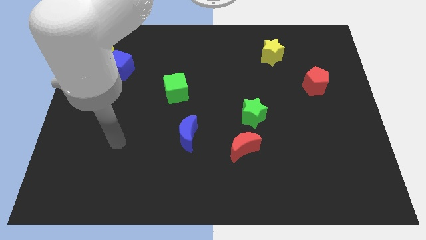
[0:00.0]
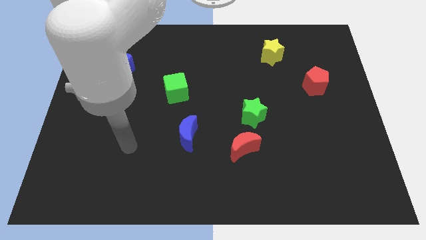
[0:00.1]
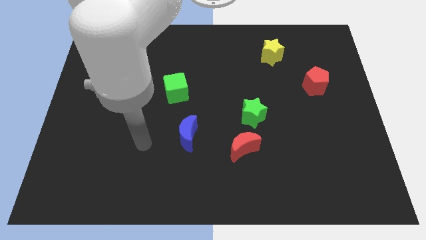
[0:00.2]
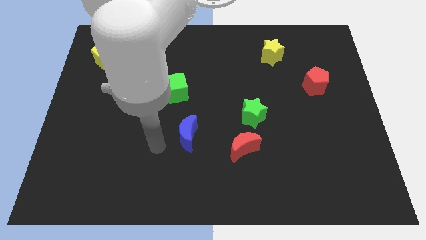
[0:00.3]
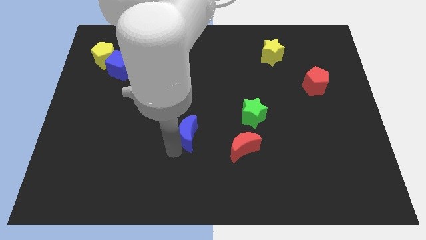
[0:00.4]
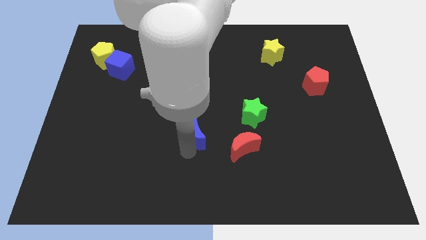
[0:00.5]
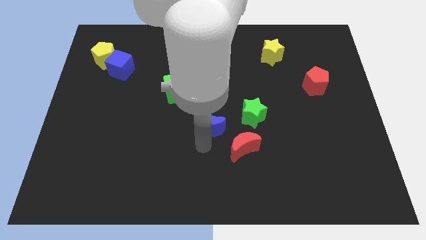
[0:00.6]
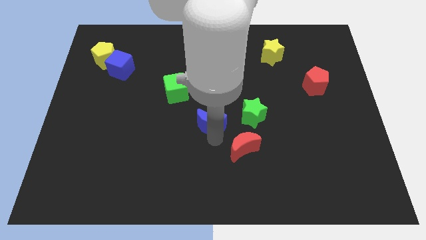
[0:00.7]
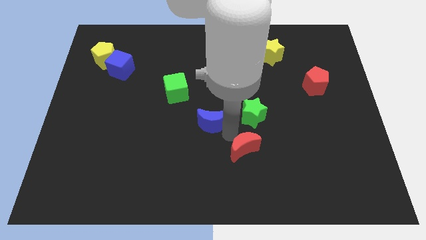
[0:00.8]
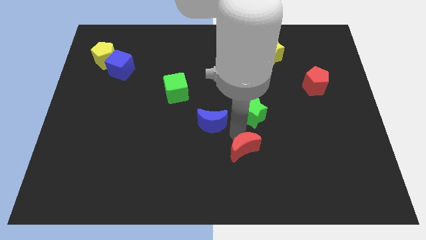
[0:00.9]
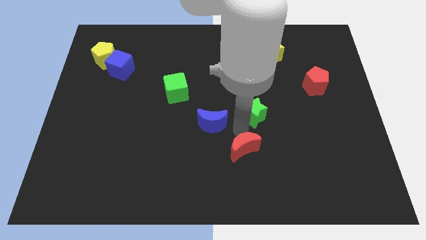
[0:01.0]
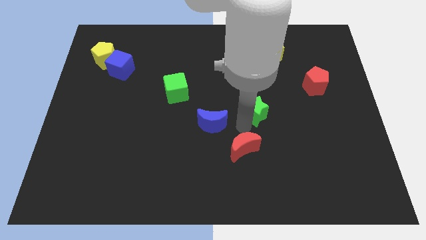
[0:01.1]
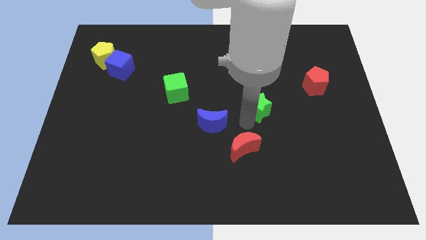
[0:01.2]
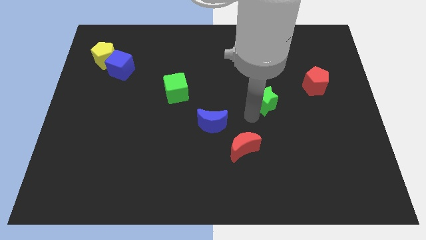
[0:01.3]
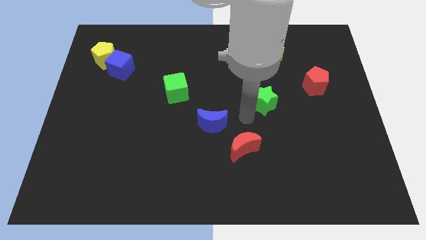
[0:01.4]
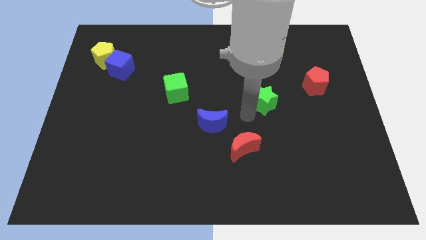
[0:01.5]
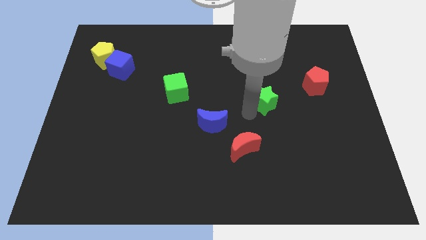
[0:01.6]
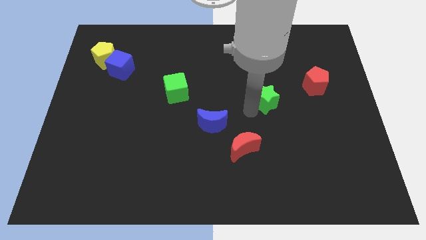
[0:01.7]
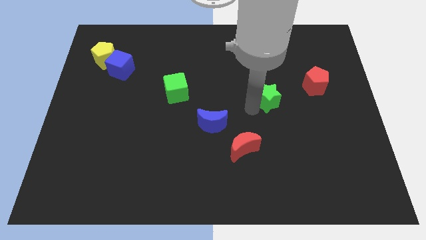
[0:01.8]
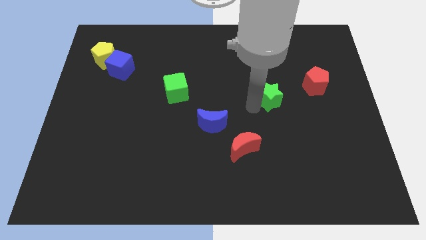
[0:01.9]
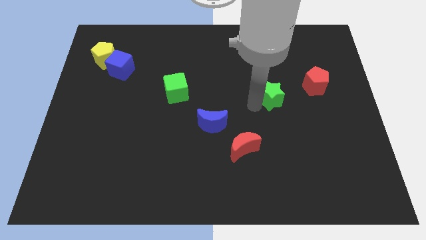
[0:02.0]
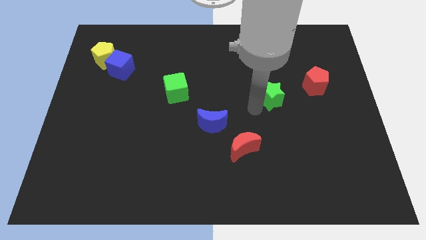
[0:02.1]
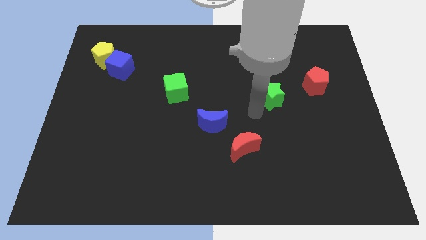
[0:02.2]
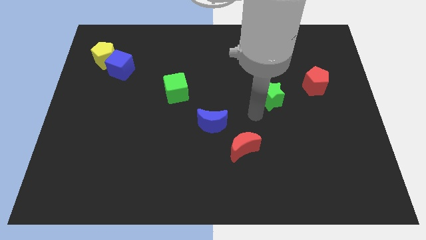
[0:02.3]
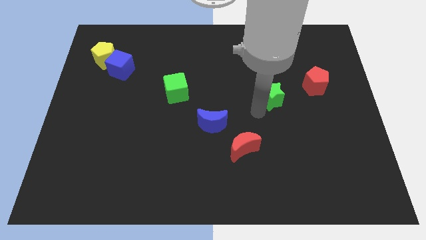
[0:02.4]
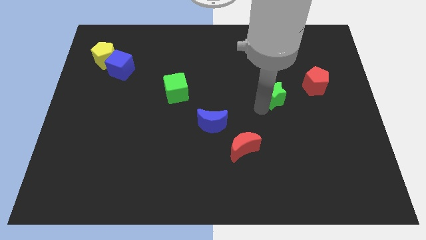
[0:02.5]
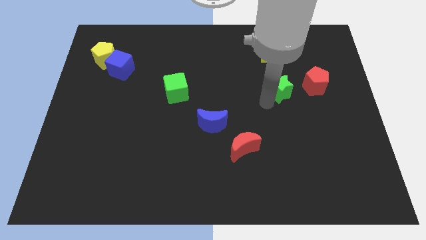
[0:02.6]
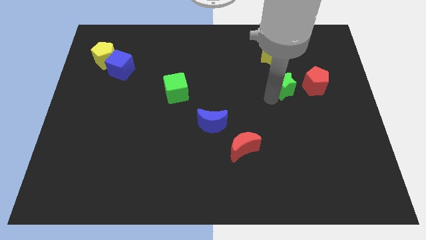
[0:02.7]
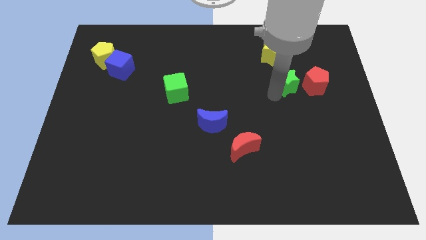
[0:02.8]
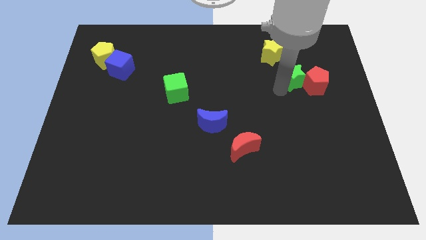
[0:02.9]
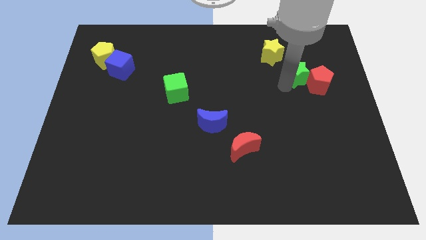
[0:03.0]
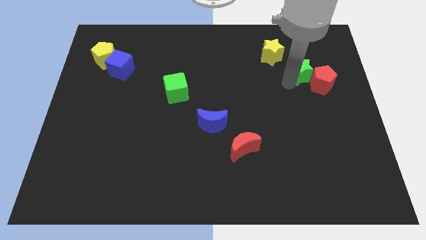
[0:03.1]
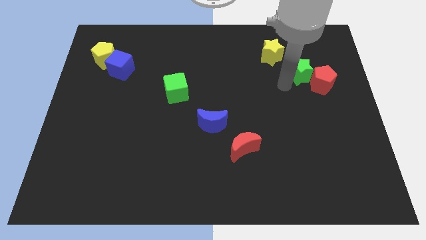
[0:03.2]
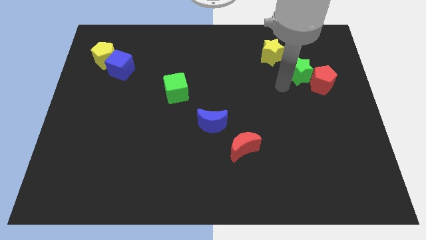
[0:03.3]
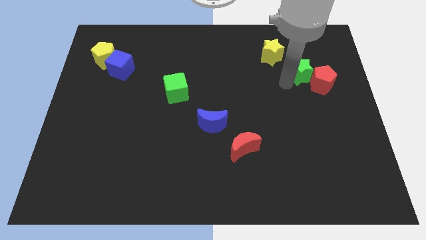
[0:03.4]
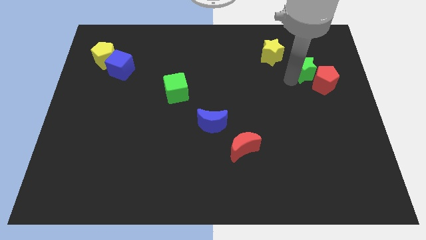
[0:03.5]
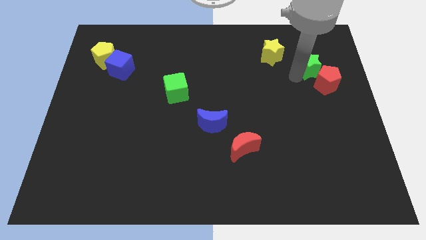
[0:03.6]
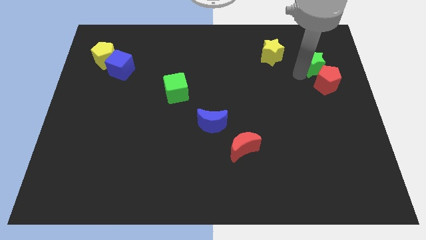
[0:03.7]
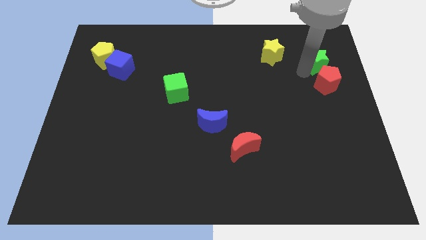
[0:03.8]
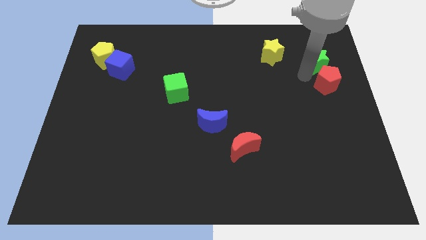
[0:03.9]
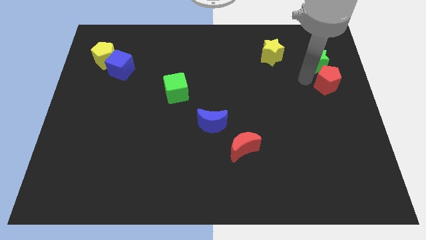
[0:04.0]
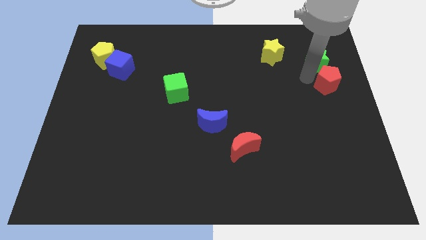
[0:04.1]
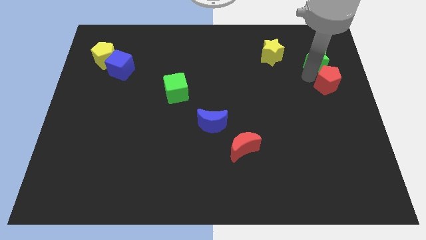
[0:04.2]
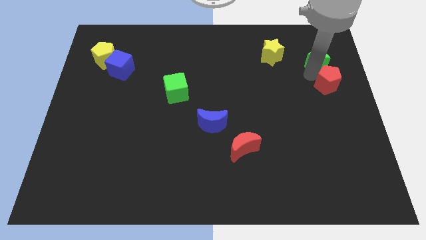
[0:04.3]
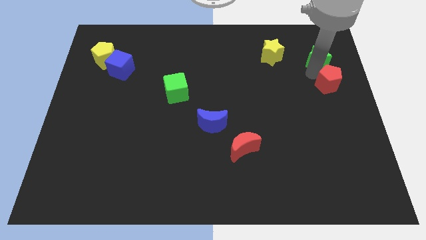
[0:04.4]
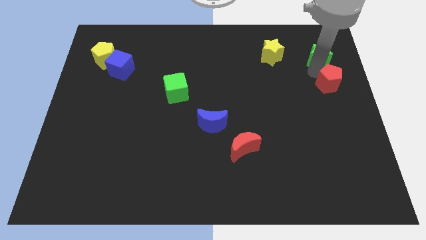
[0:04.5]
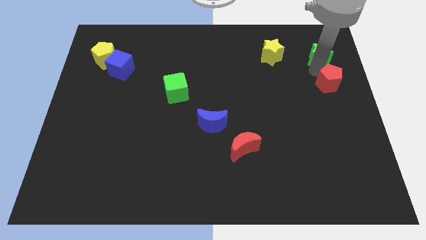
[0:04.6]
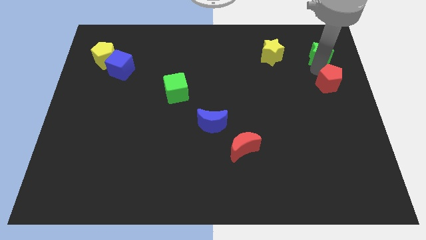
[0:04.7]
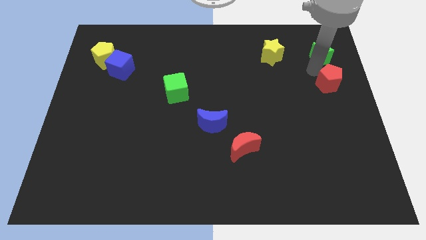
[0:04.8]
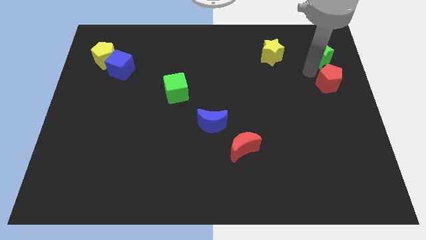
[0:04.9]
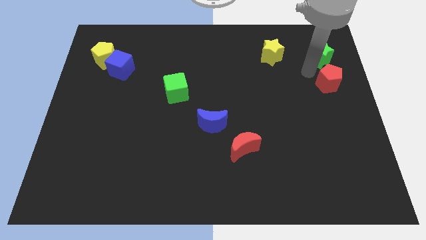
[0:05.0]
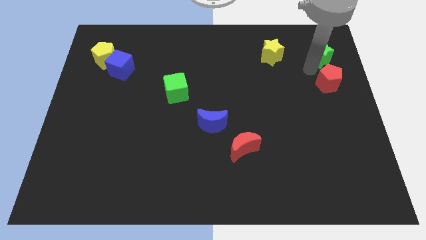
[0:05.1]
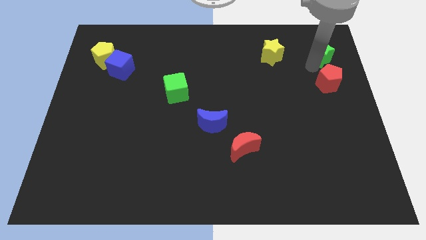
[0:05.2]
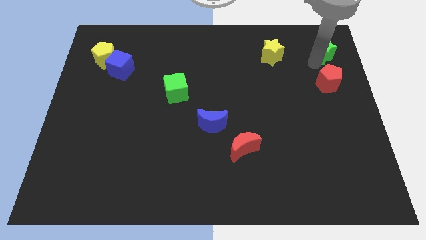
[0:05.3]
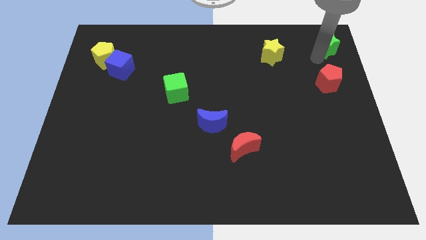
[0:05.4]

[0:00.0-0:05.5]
slide the green star to the top right of the board
